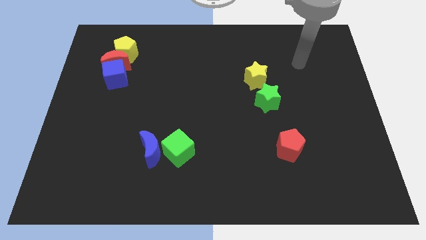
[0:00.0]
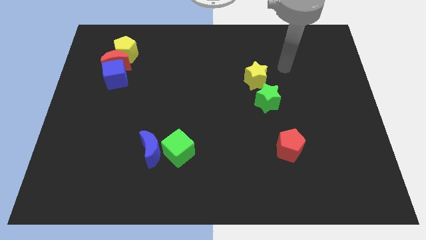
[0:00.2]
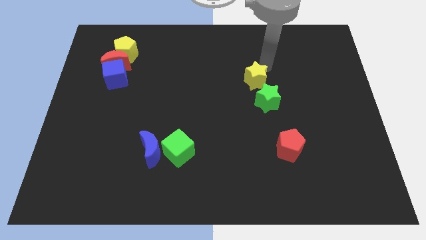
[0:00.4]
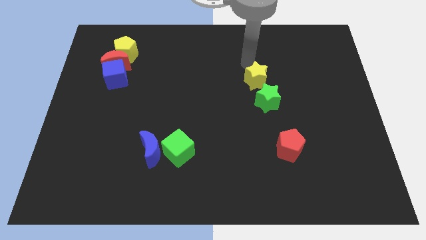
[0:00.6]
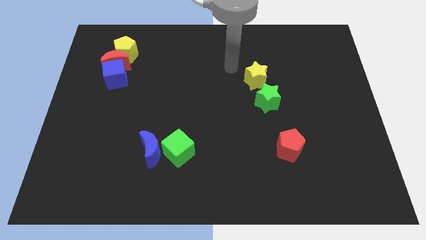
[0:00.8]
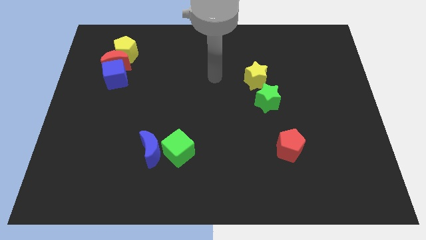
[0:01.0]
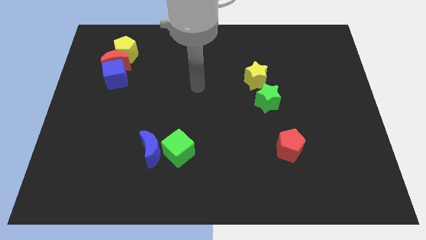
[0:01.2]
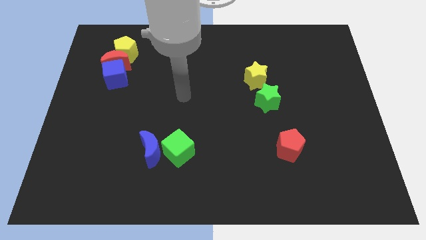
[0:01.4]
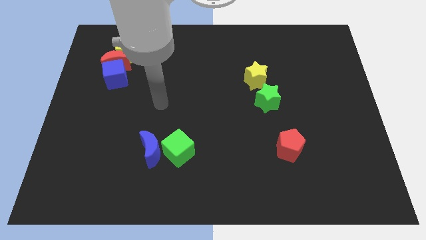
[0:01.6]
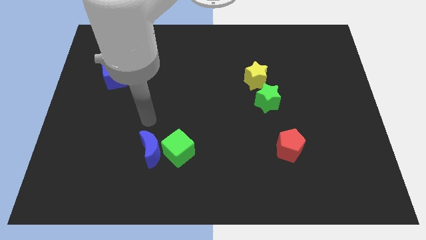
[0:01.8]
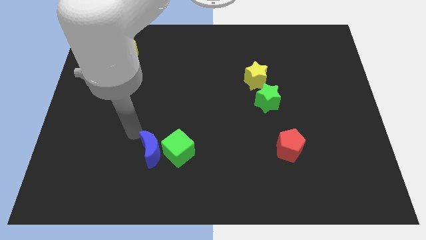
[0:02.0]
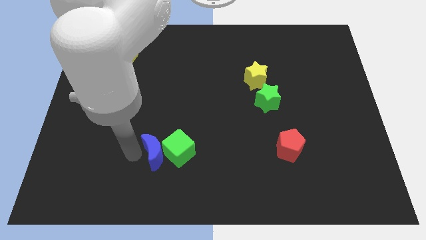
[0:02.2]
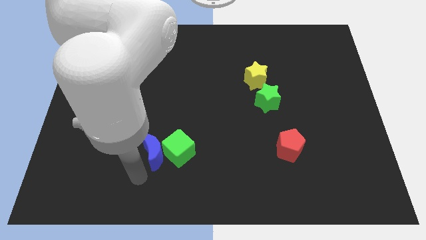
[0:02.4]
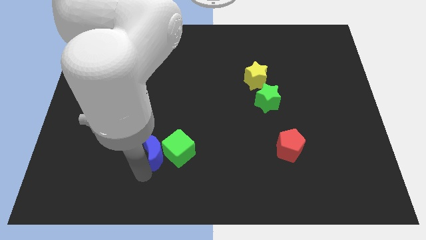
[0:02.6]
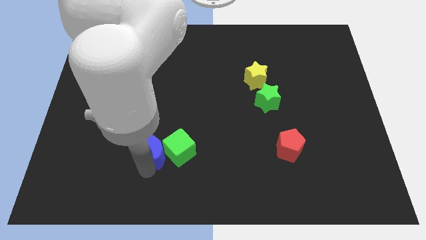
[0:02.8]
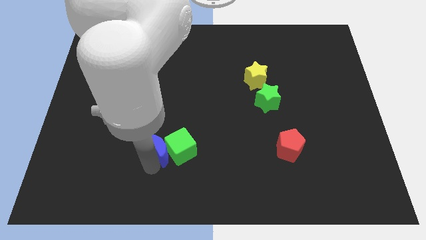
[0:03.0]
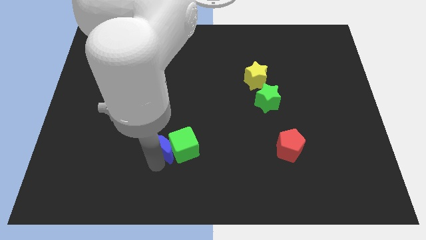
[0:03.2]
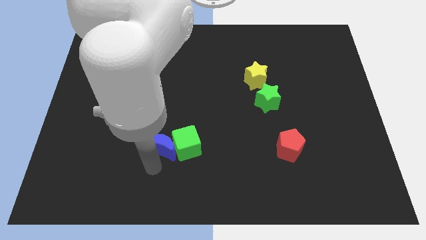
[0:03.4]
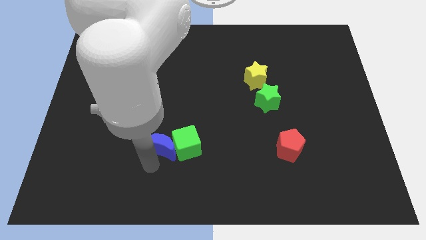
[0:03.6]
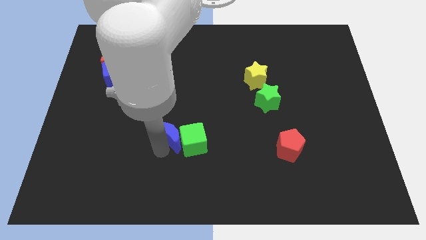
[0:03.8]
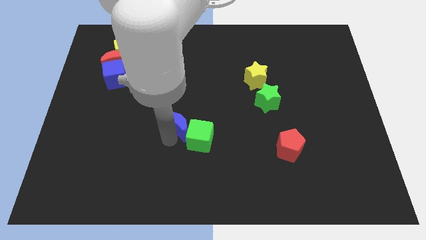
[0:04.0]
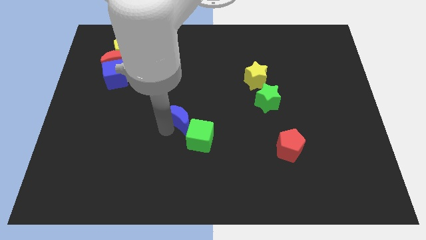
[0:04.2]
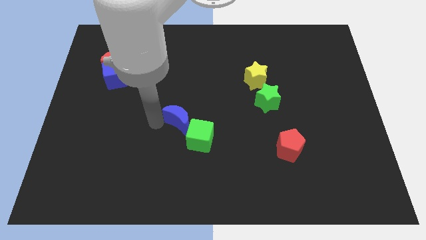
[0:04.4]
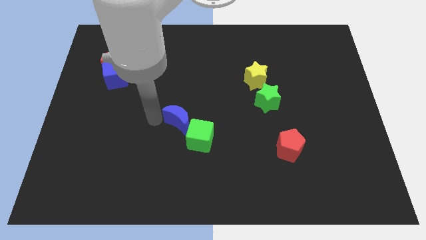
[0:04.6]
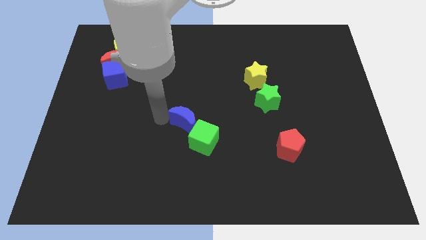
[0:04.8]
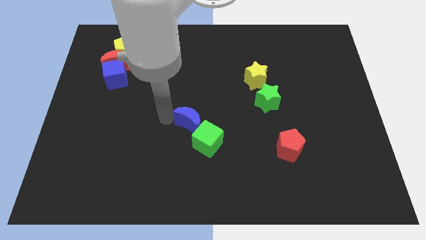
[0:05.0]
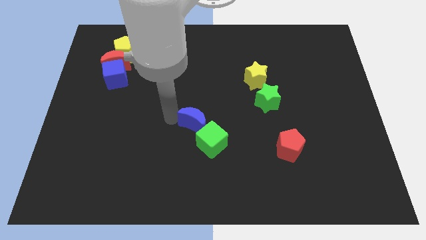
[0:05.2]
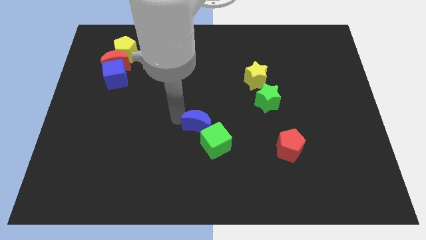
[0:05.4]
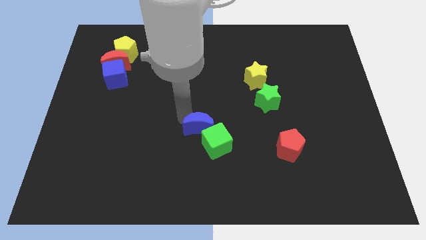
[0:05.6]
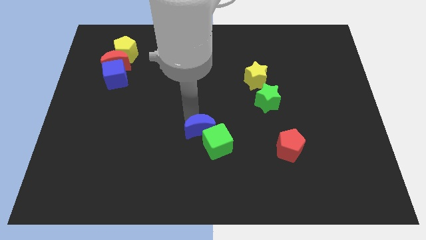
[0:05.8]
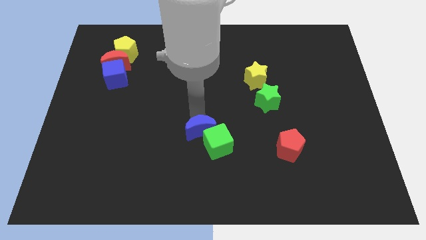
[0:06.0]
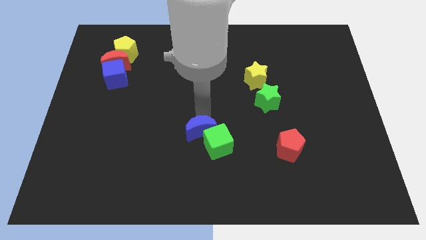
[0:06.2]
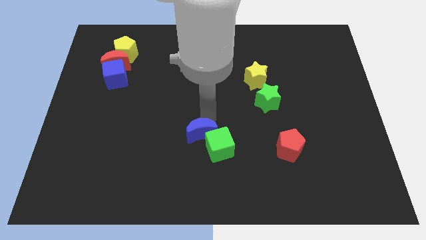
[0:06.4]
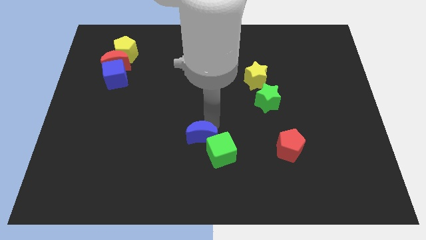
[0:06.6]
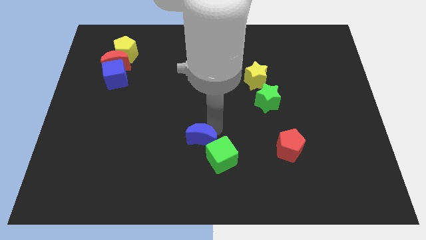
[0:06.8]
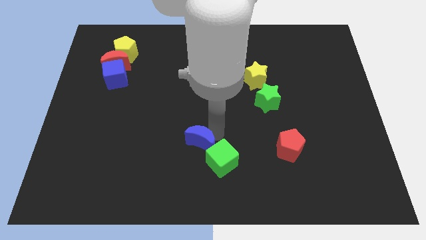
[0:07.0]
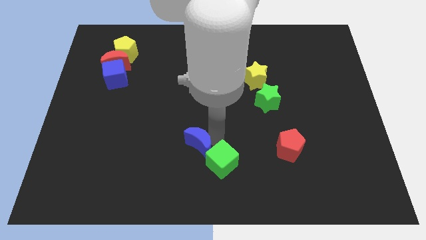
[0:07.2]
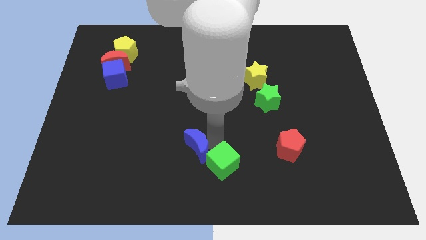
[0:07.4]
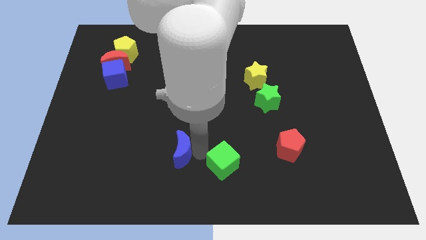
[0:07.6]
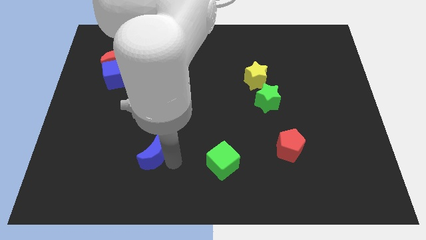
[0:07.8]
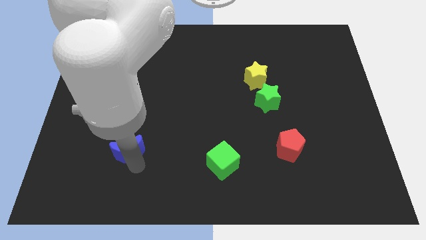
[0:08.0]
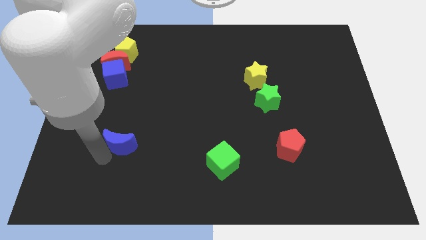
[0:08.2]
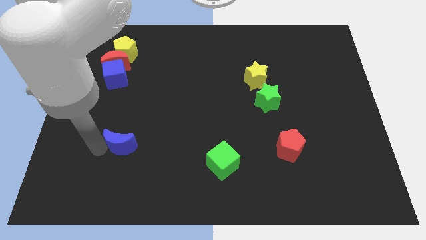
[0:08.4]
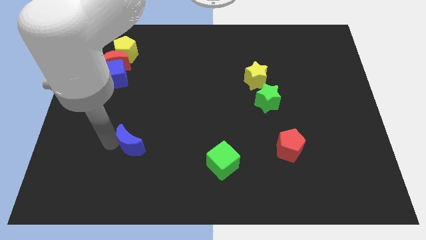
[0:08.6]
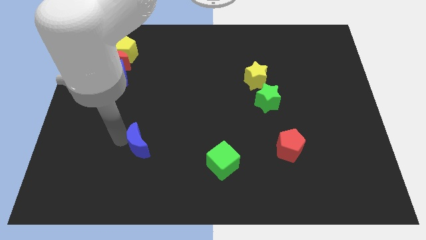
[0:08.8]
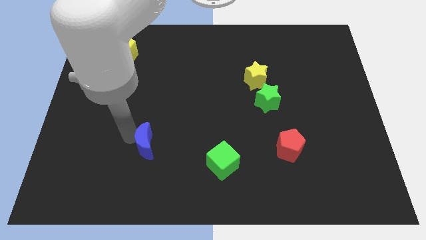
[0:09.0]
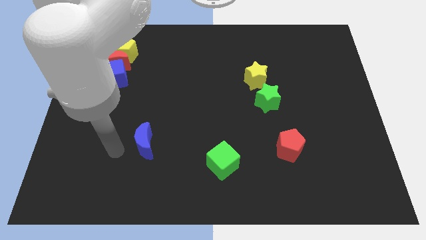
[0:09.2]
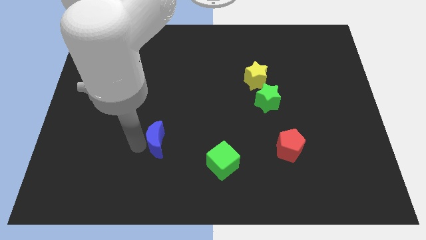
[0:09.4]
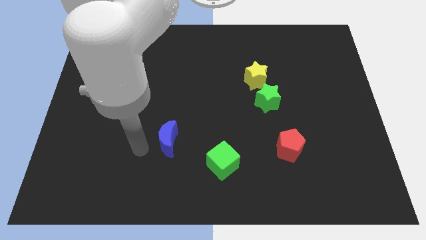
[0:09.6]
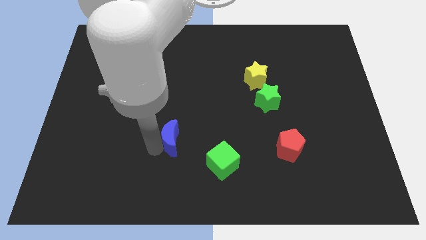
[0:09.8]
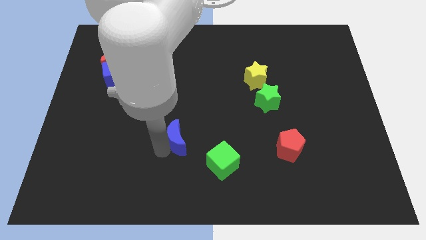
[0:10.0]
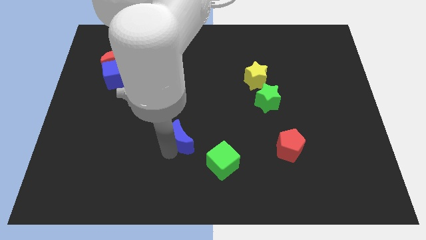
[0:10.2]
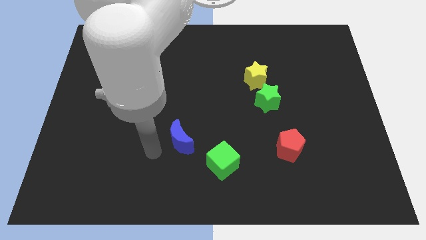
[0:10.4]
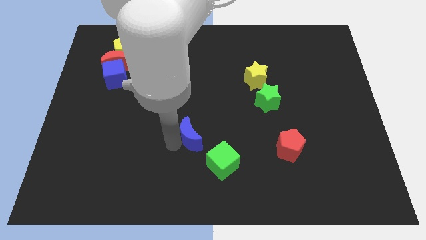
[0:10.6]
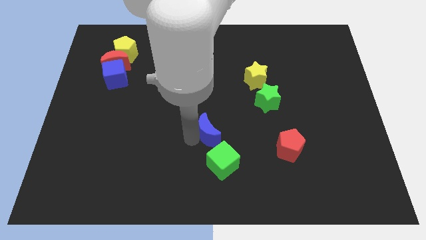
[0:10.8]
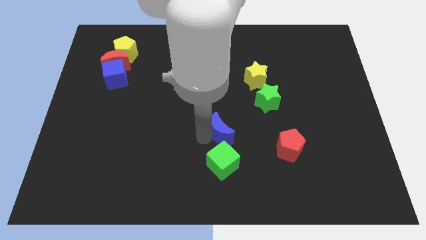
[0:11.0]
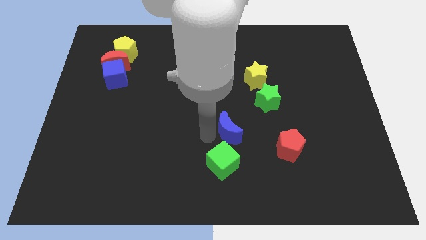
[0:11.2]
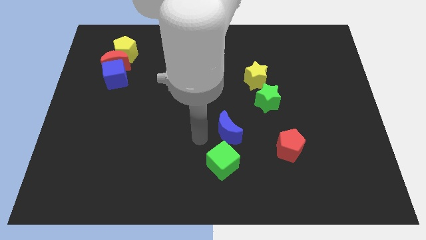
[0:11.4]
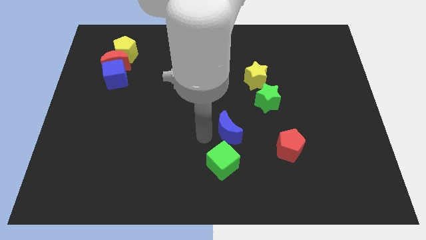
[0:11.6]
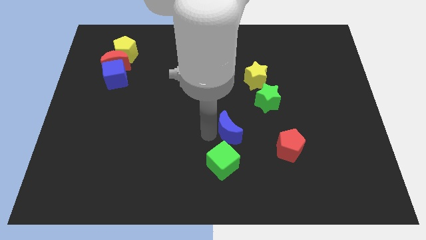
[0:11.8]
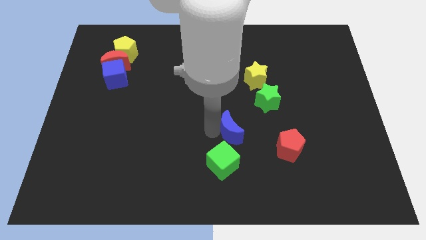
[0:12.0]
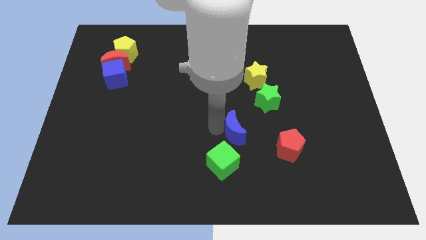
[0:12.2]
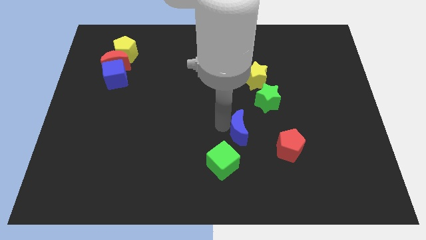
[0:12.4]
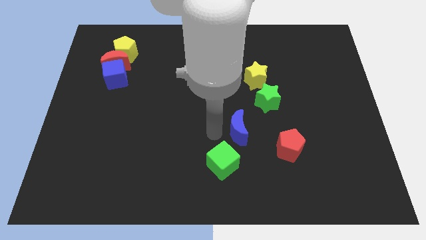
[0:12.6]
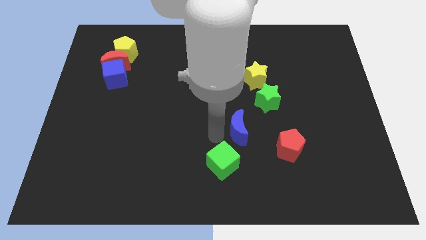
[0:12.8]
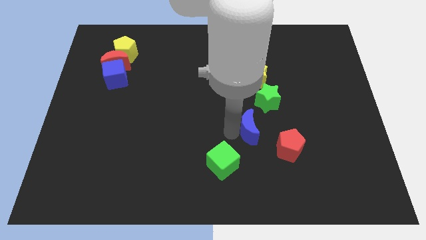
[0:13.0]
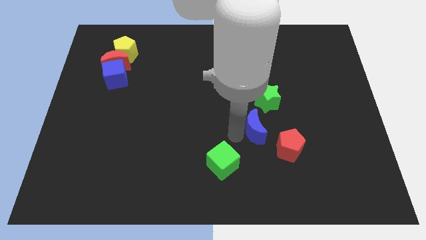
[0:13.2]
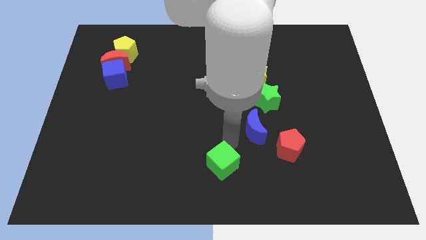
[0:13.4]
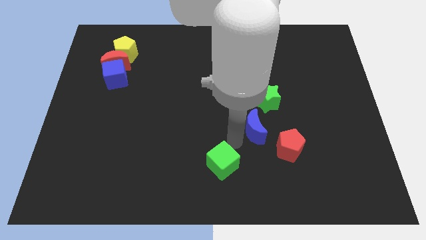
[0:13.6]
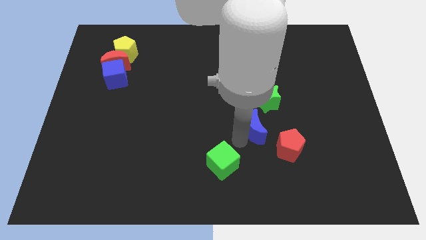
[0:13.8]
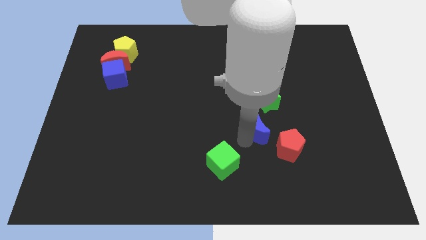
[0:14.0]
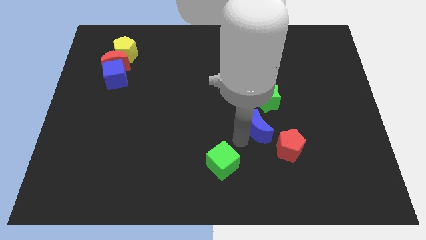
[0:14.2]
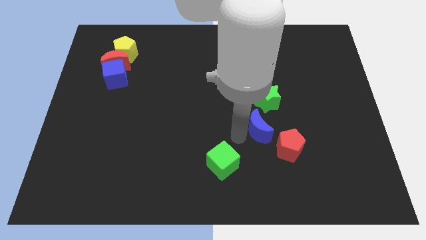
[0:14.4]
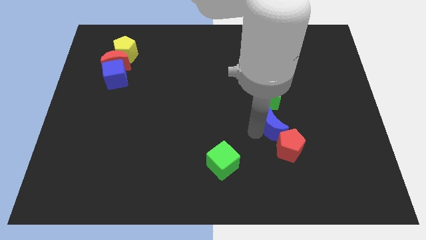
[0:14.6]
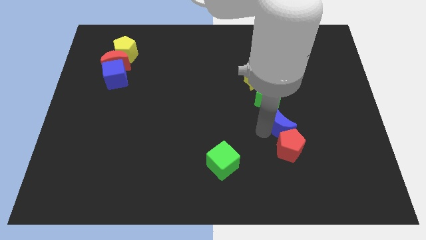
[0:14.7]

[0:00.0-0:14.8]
slide the blue moon diagonally down and to the right of the green star
